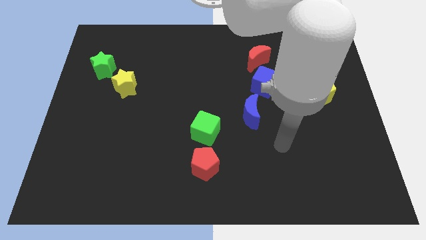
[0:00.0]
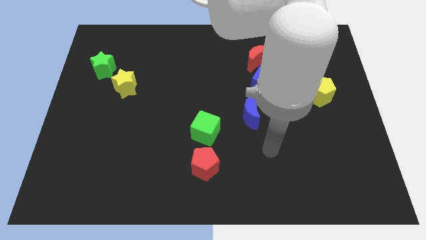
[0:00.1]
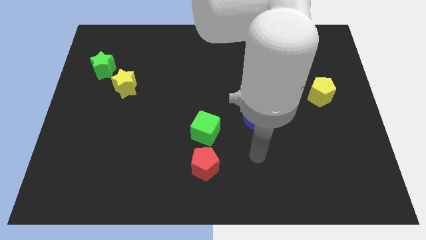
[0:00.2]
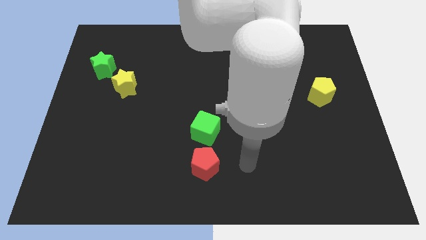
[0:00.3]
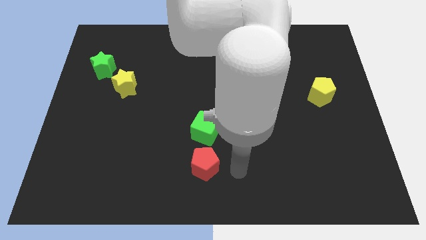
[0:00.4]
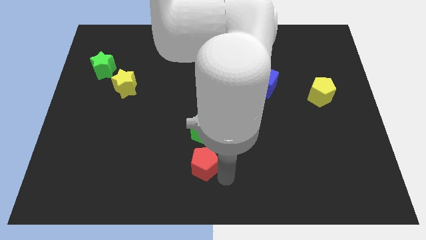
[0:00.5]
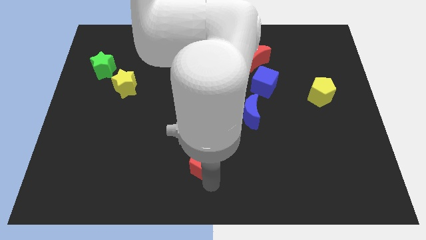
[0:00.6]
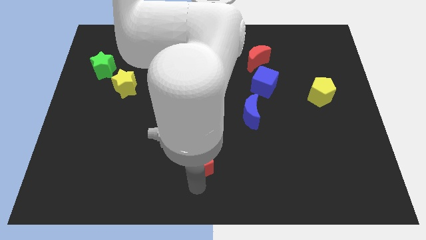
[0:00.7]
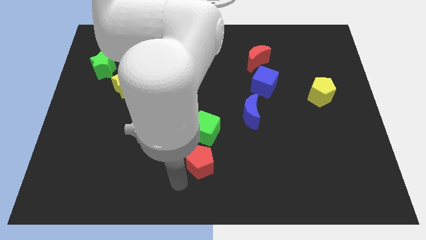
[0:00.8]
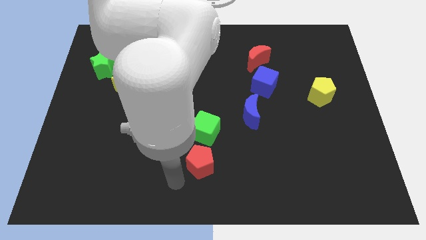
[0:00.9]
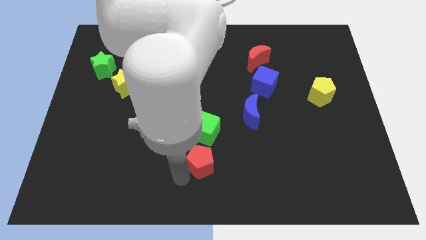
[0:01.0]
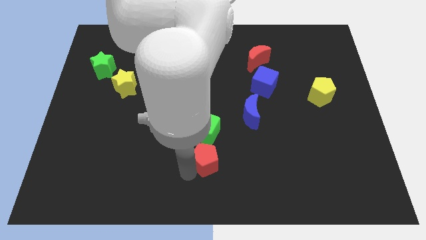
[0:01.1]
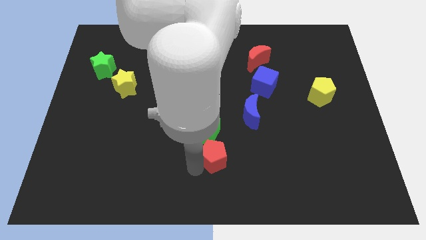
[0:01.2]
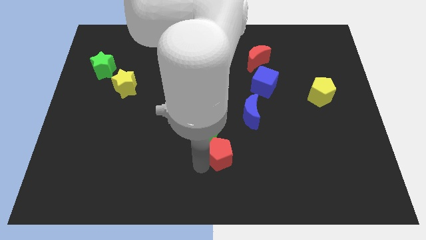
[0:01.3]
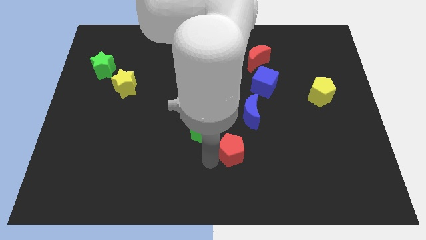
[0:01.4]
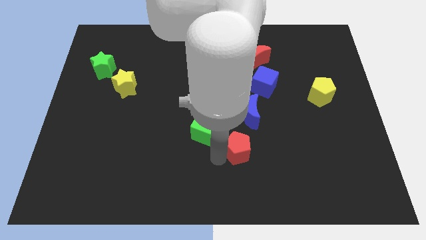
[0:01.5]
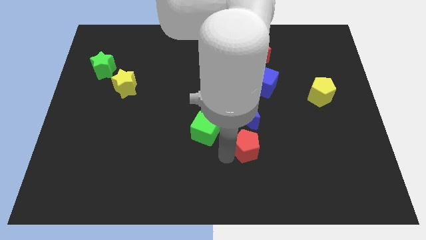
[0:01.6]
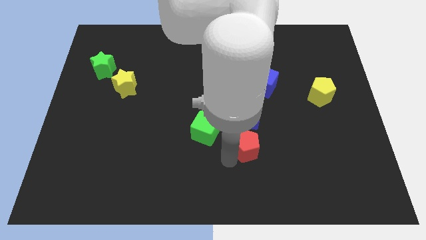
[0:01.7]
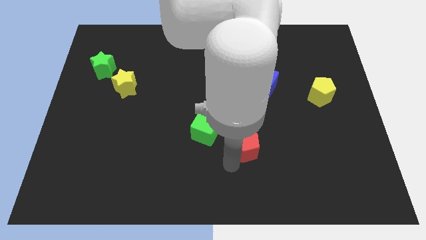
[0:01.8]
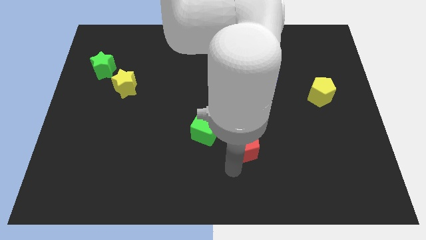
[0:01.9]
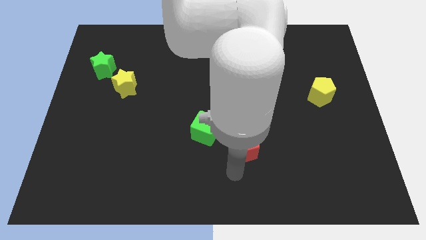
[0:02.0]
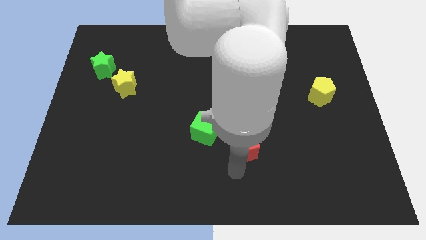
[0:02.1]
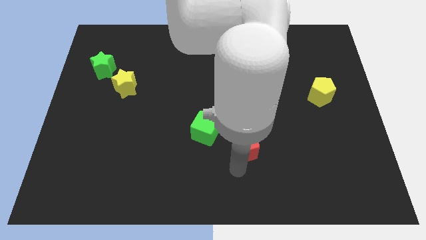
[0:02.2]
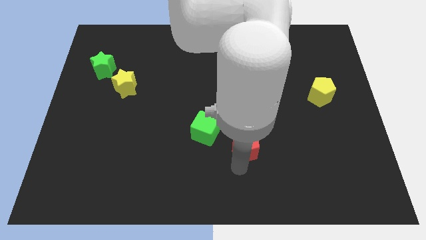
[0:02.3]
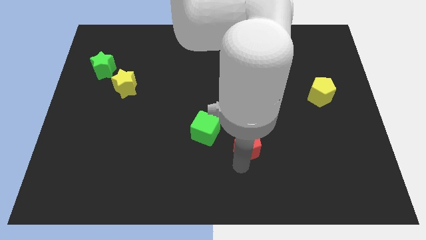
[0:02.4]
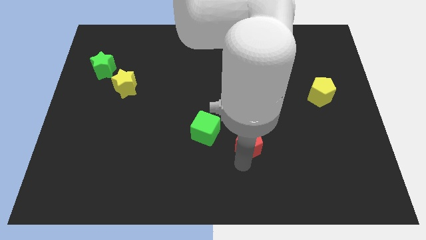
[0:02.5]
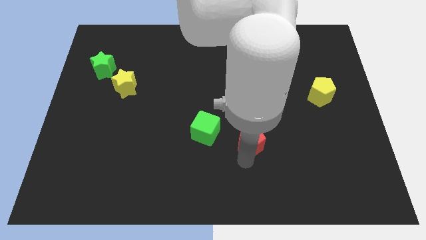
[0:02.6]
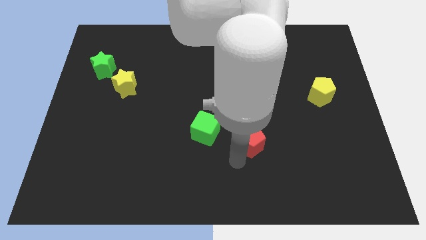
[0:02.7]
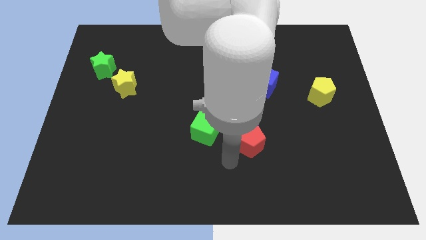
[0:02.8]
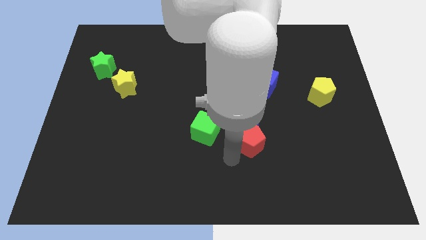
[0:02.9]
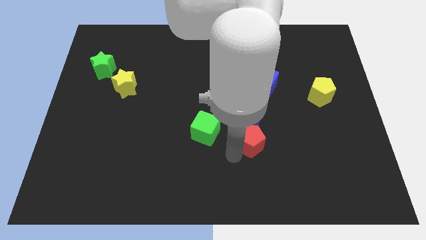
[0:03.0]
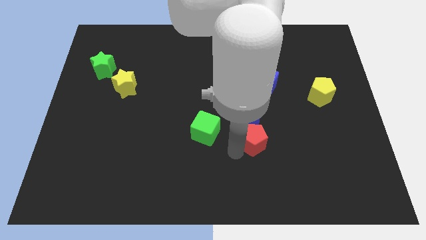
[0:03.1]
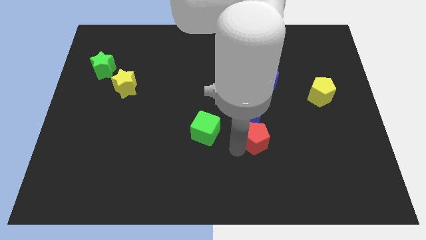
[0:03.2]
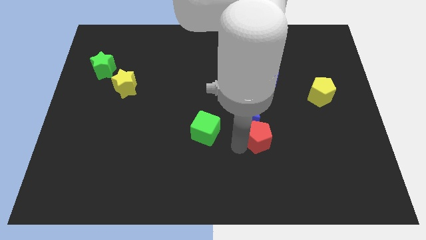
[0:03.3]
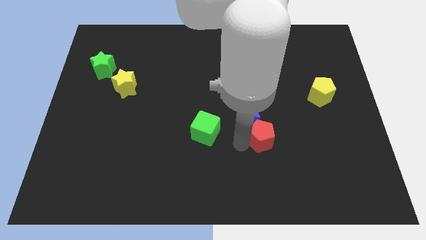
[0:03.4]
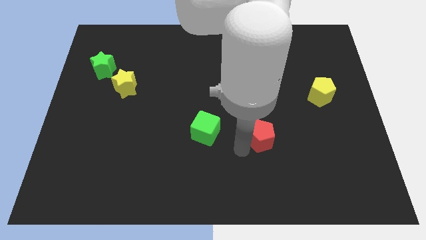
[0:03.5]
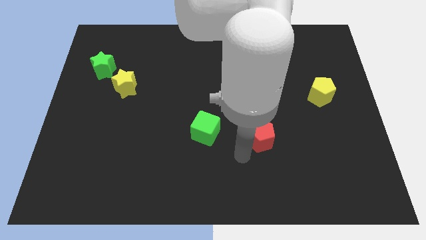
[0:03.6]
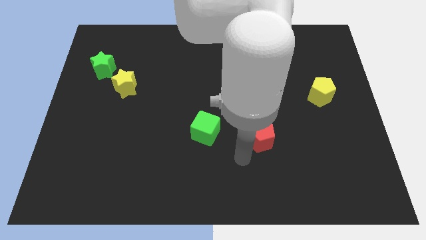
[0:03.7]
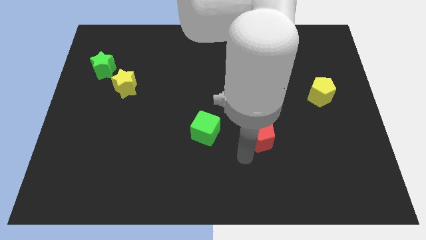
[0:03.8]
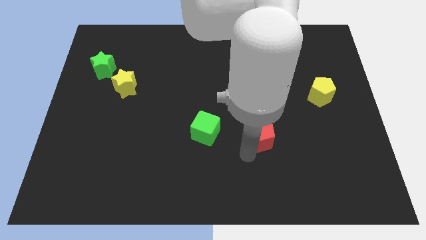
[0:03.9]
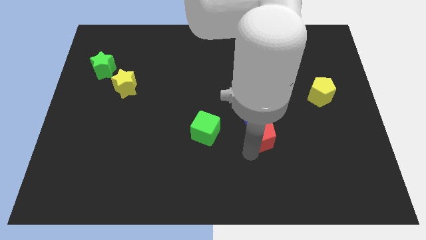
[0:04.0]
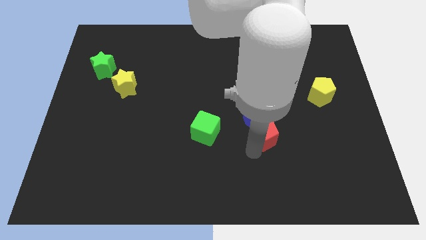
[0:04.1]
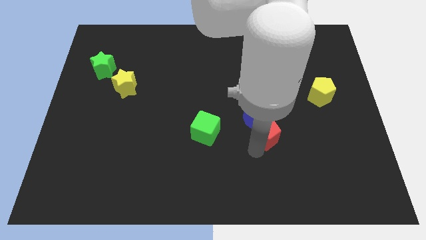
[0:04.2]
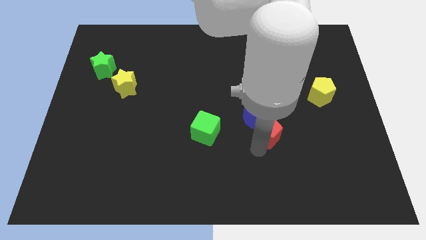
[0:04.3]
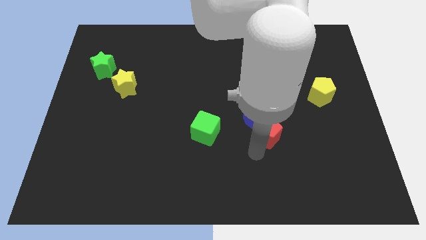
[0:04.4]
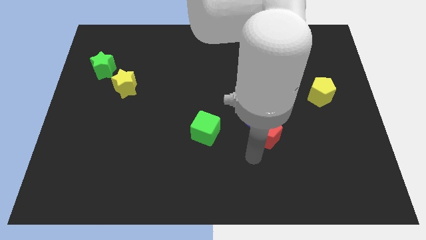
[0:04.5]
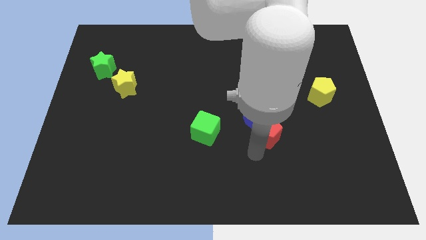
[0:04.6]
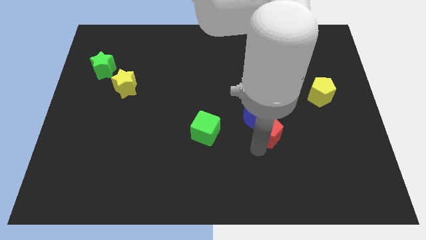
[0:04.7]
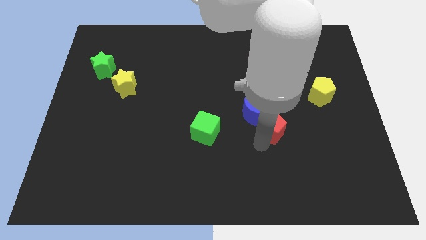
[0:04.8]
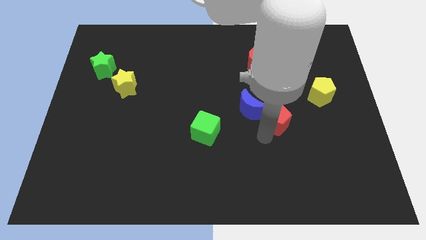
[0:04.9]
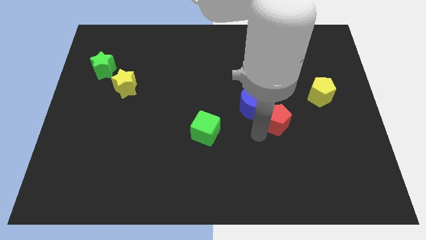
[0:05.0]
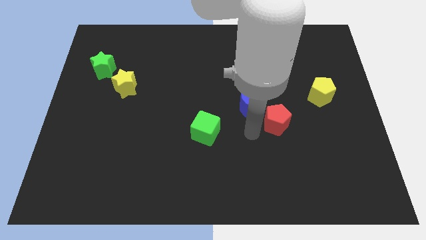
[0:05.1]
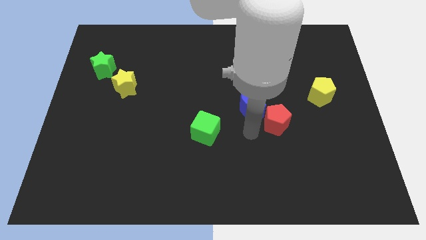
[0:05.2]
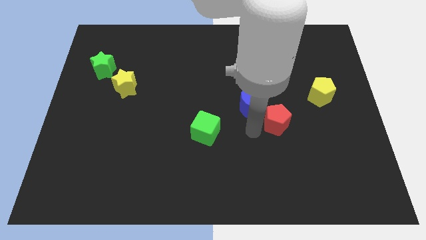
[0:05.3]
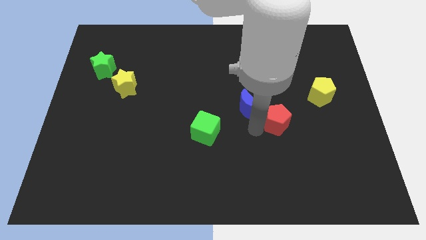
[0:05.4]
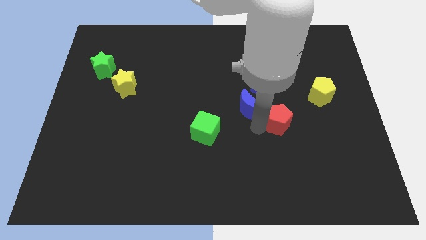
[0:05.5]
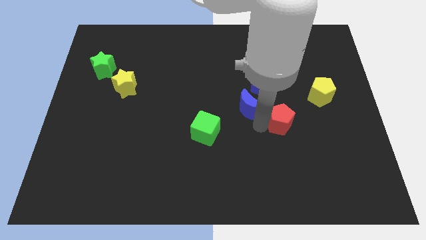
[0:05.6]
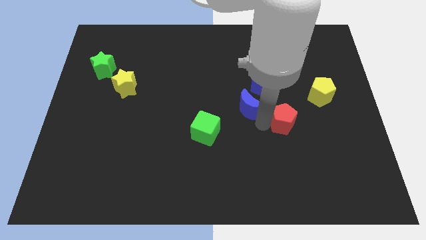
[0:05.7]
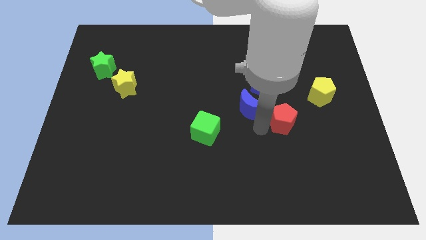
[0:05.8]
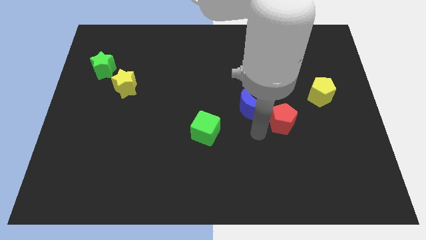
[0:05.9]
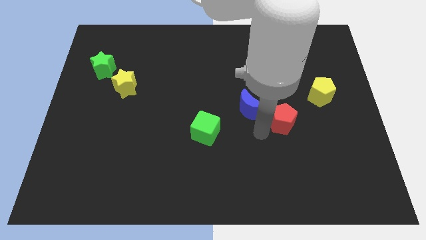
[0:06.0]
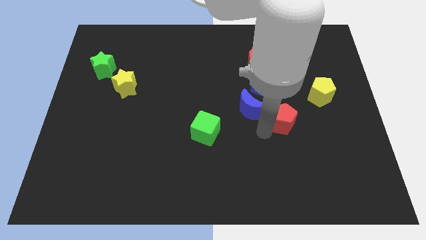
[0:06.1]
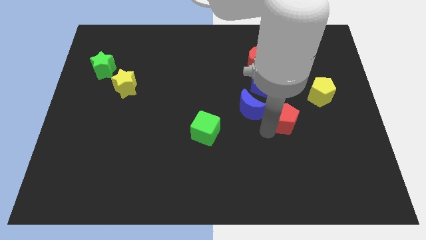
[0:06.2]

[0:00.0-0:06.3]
slide the red pentagon diagonally down and to the left of the yellow pentagon

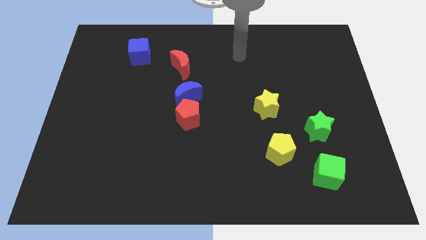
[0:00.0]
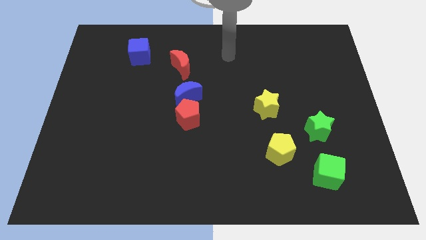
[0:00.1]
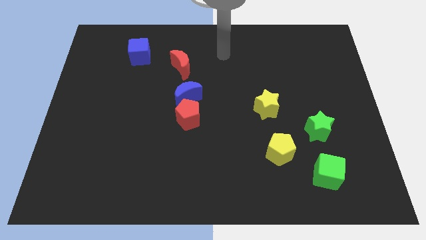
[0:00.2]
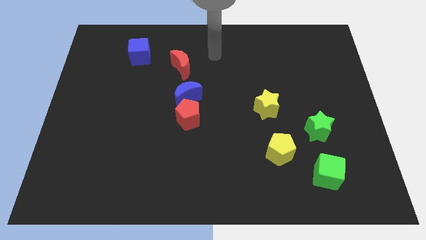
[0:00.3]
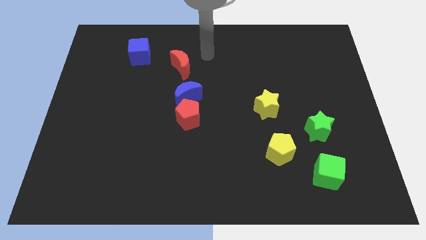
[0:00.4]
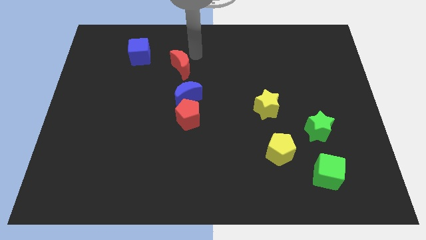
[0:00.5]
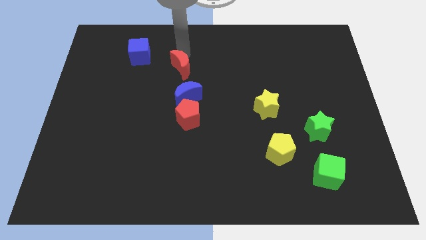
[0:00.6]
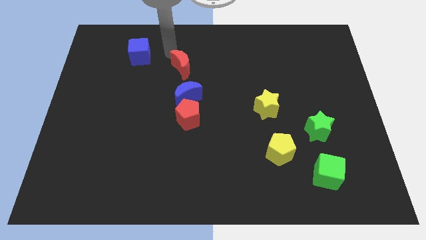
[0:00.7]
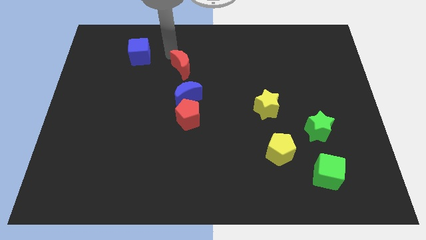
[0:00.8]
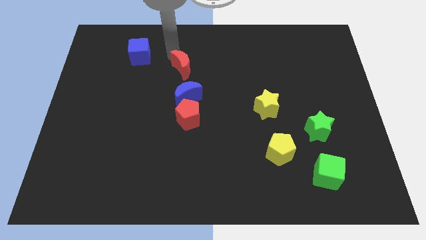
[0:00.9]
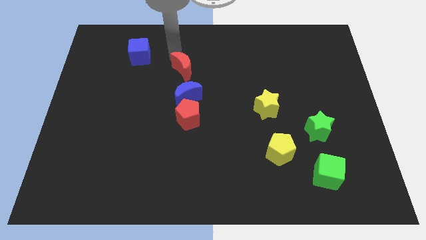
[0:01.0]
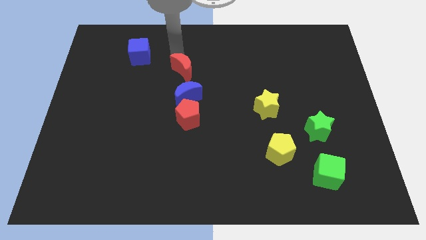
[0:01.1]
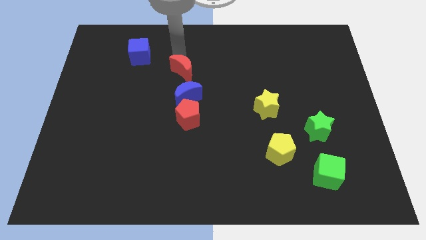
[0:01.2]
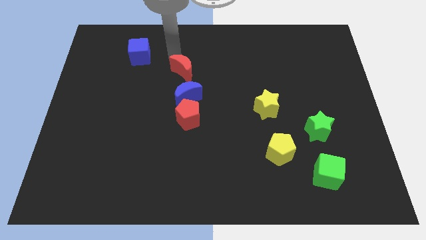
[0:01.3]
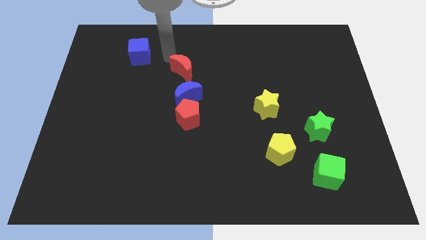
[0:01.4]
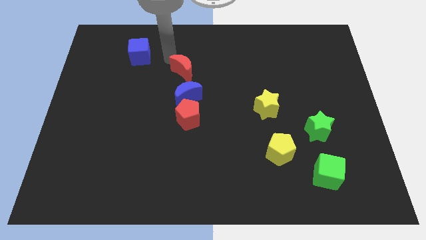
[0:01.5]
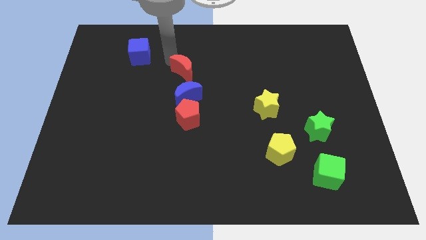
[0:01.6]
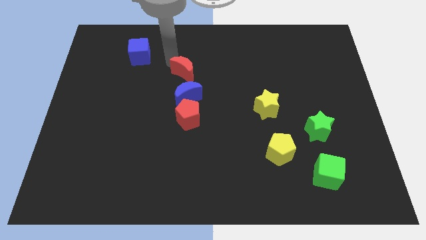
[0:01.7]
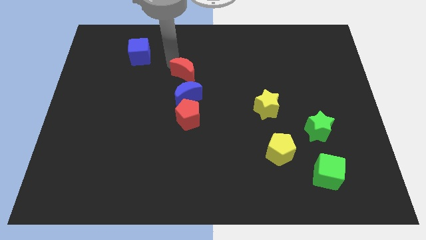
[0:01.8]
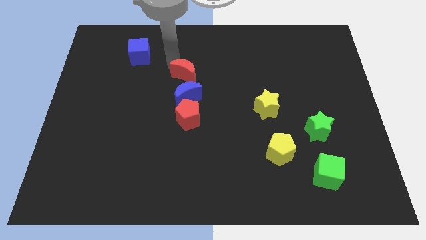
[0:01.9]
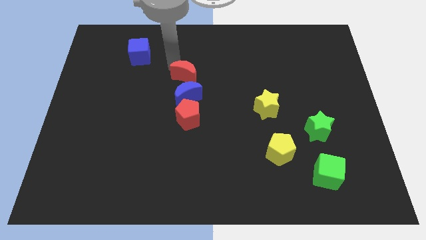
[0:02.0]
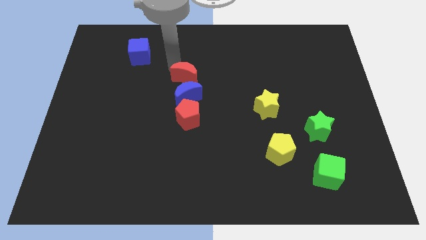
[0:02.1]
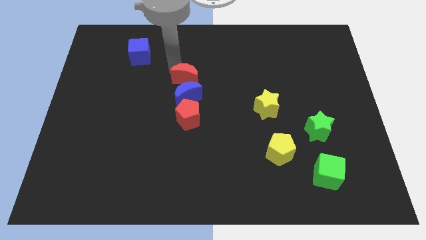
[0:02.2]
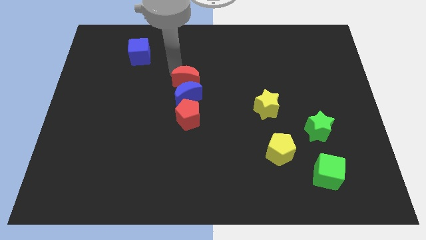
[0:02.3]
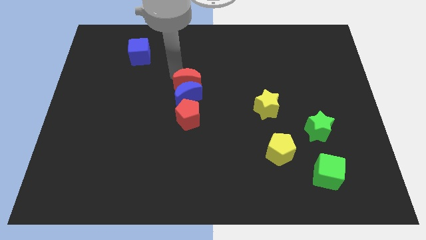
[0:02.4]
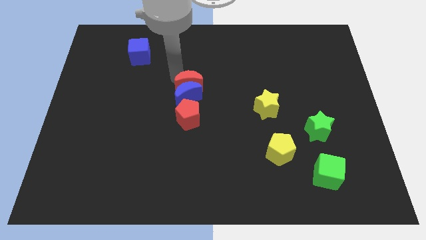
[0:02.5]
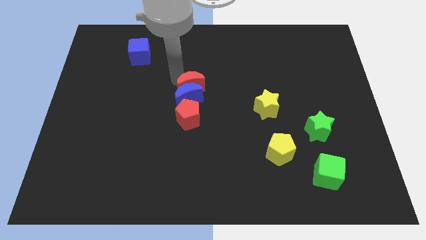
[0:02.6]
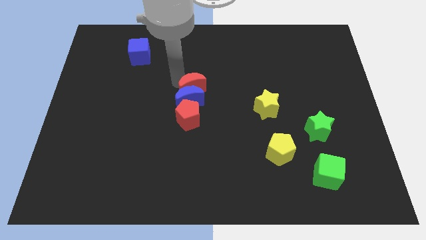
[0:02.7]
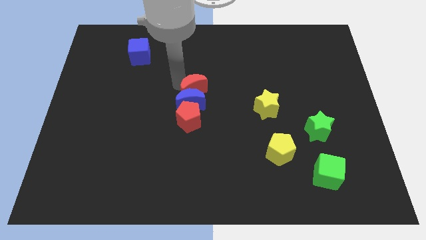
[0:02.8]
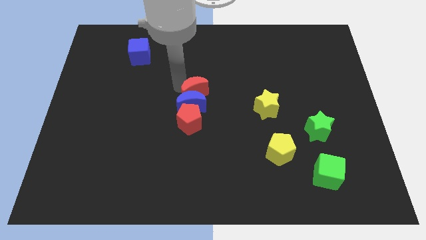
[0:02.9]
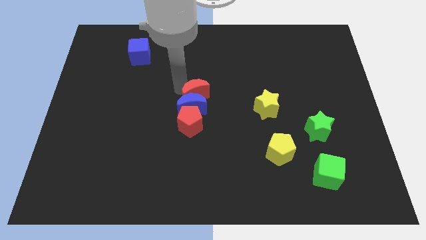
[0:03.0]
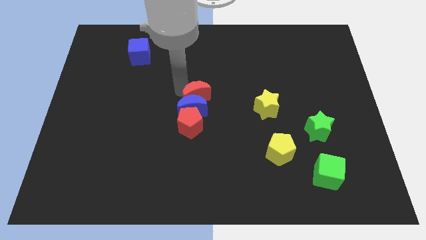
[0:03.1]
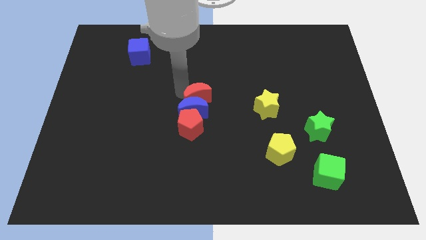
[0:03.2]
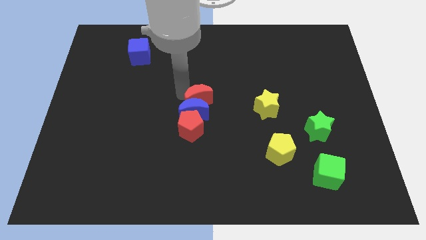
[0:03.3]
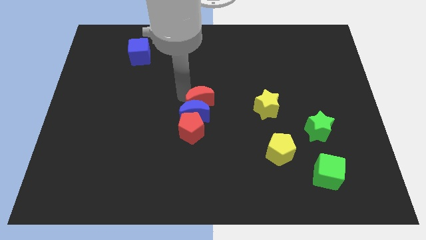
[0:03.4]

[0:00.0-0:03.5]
put the red moon to the left side of the yellow star
